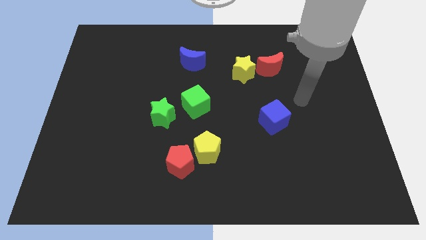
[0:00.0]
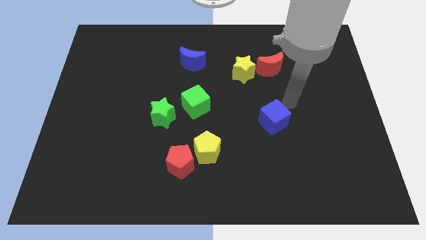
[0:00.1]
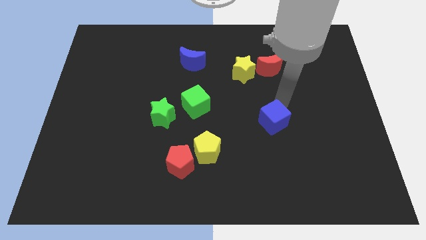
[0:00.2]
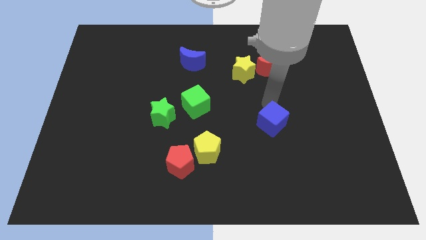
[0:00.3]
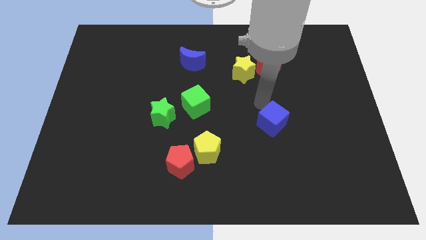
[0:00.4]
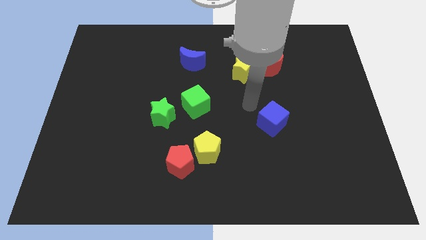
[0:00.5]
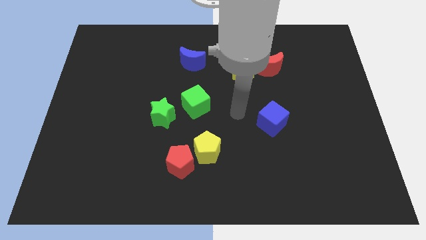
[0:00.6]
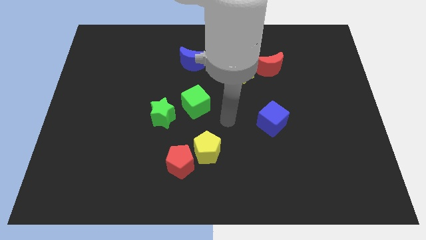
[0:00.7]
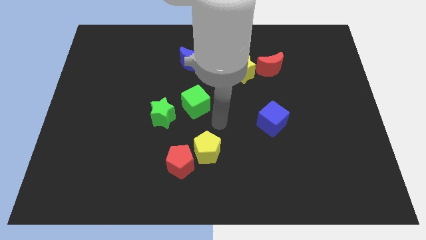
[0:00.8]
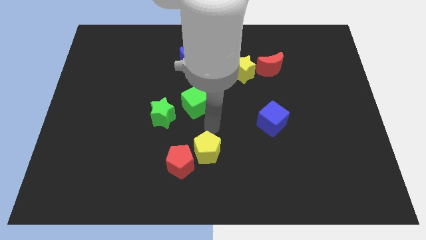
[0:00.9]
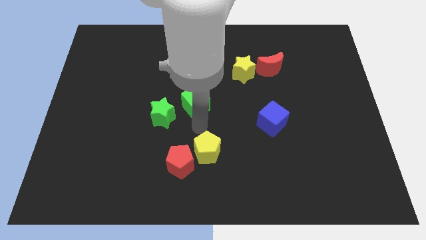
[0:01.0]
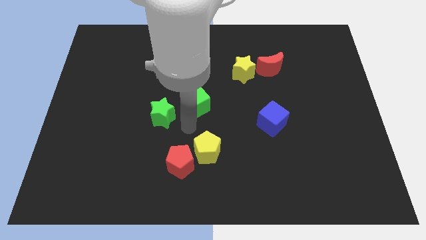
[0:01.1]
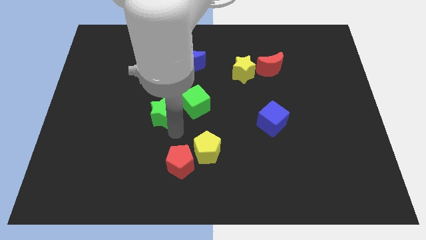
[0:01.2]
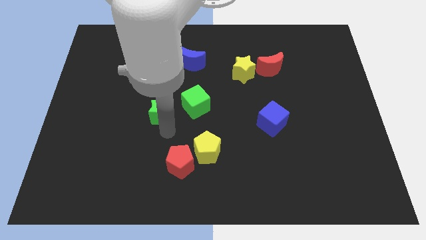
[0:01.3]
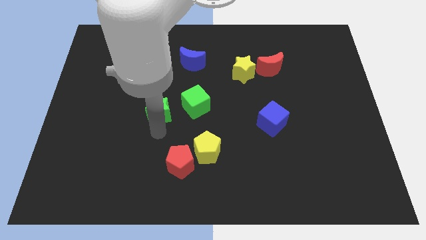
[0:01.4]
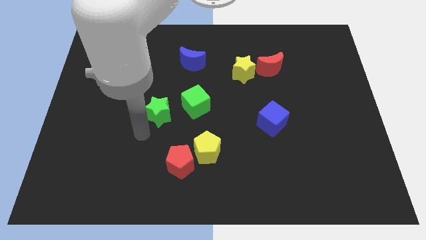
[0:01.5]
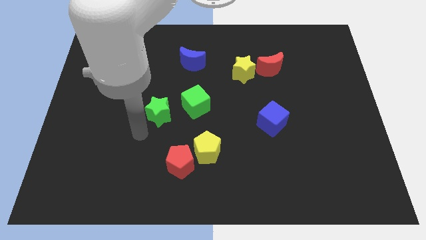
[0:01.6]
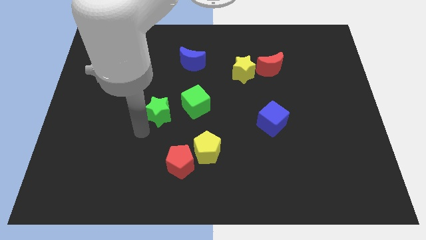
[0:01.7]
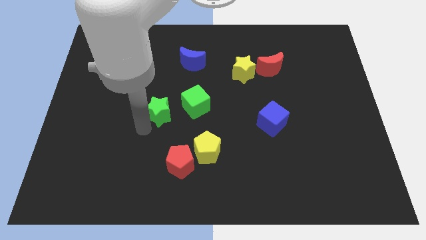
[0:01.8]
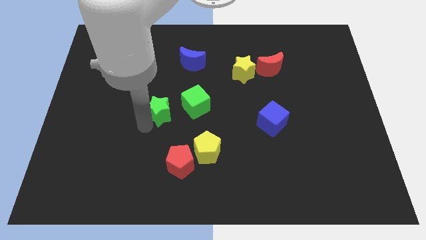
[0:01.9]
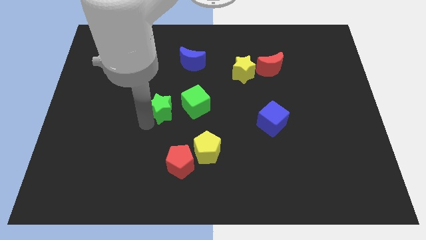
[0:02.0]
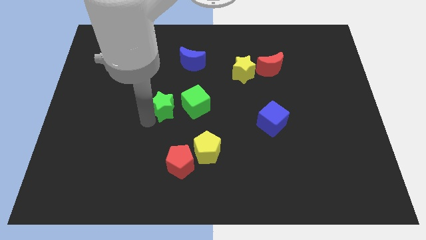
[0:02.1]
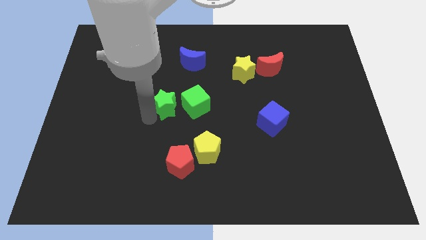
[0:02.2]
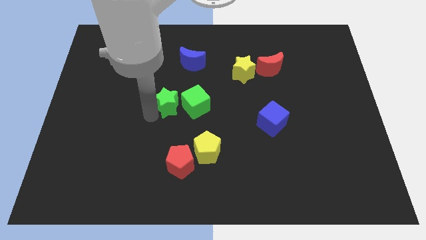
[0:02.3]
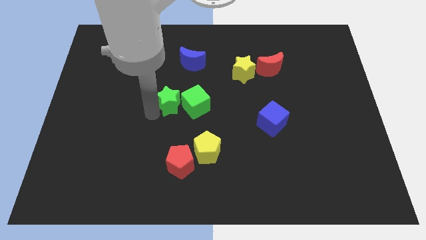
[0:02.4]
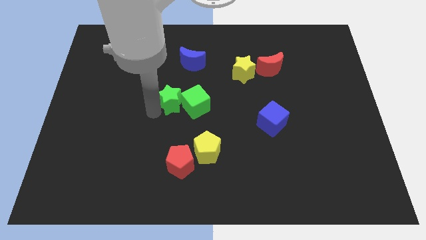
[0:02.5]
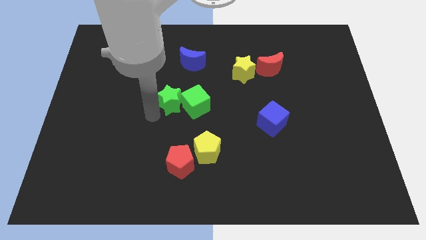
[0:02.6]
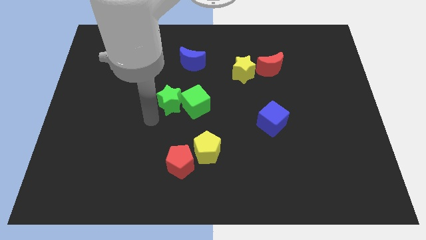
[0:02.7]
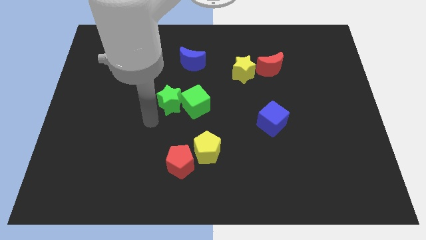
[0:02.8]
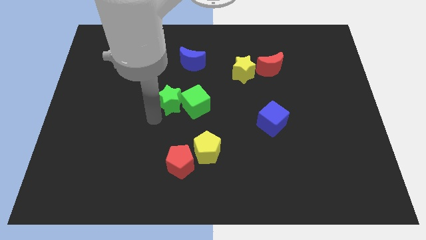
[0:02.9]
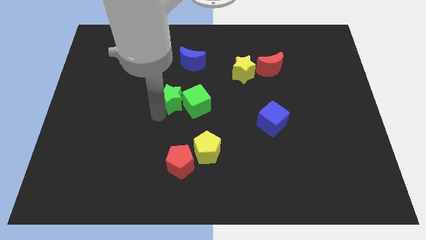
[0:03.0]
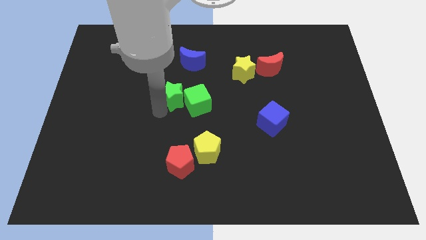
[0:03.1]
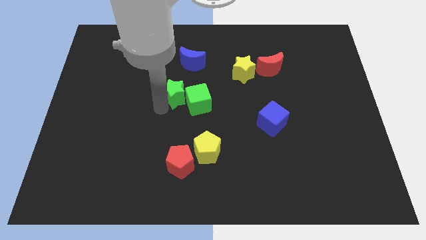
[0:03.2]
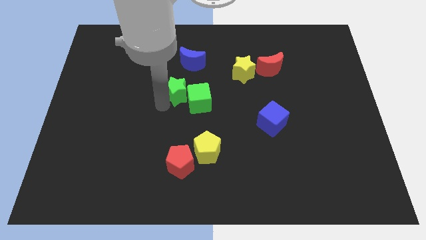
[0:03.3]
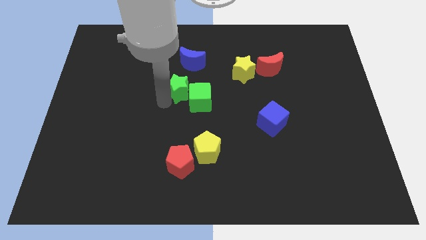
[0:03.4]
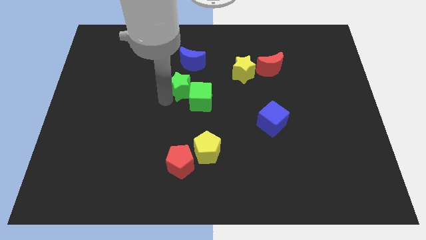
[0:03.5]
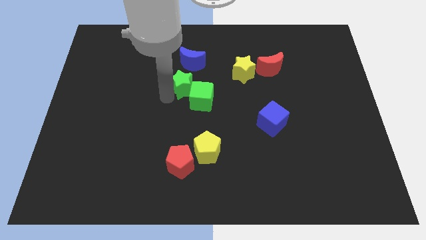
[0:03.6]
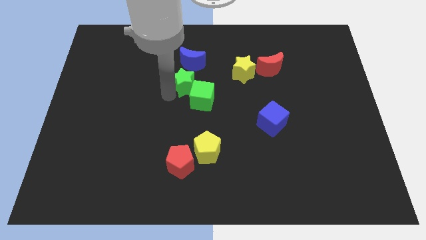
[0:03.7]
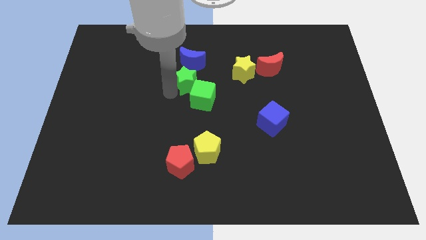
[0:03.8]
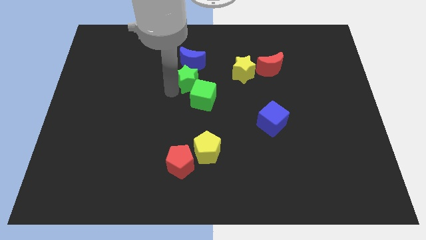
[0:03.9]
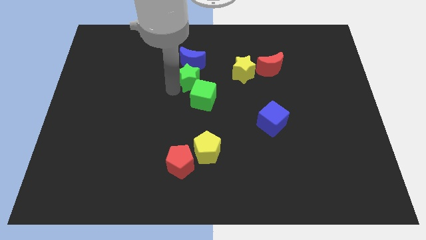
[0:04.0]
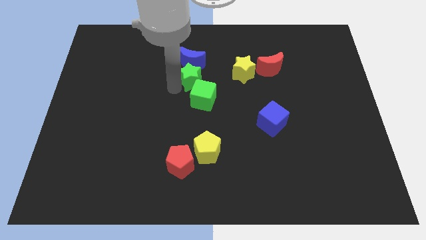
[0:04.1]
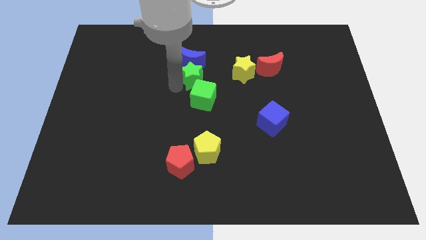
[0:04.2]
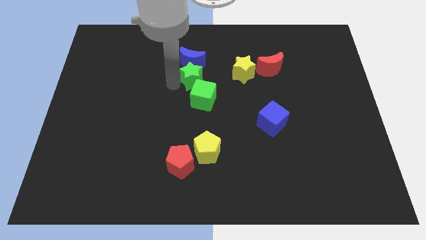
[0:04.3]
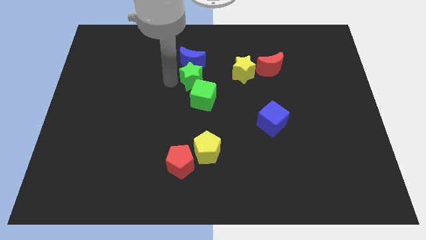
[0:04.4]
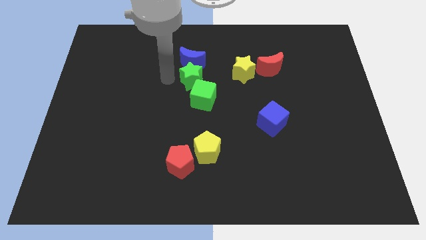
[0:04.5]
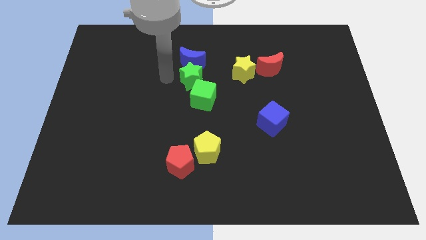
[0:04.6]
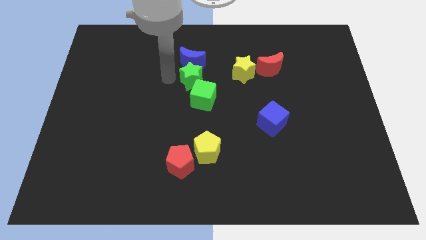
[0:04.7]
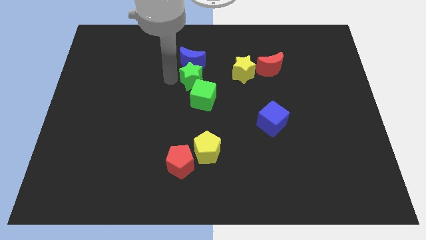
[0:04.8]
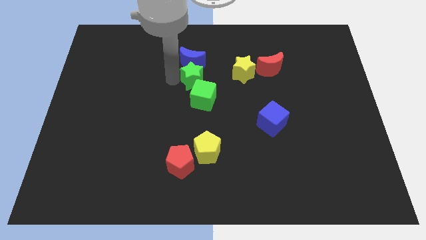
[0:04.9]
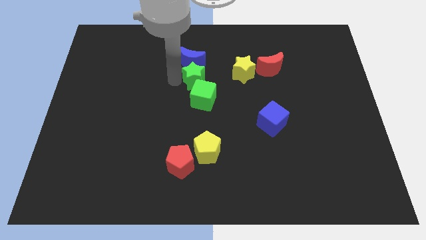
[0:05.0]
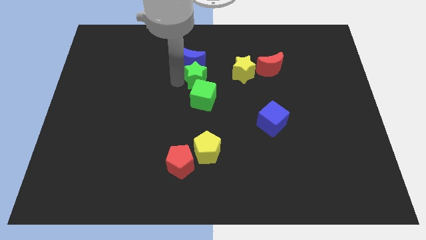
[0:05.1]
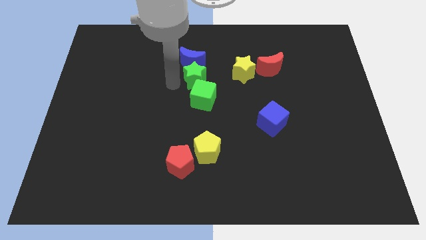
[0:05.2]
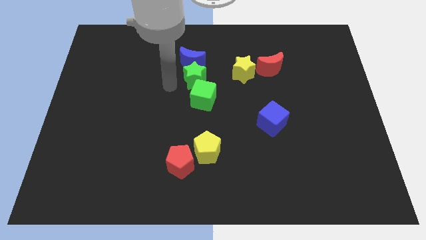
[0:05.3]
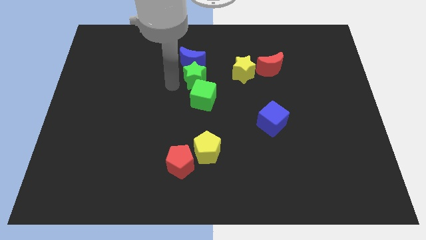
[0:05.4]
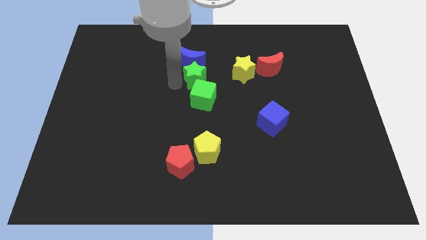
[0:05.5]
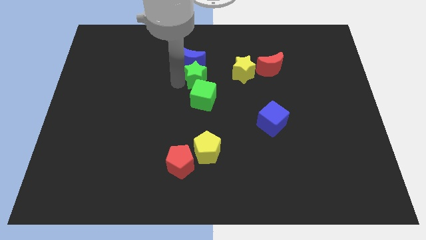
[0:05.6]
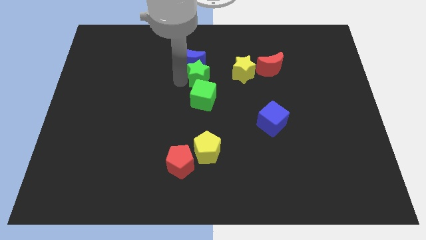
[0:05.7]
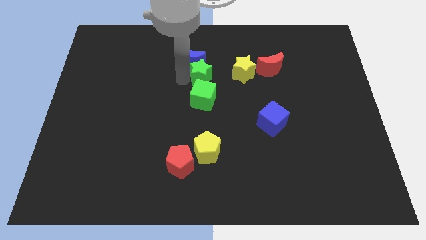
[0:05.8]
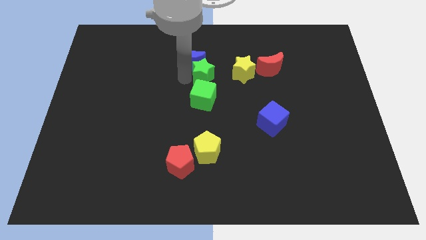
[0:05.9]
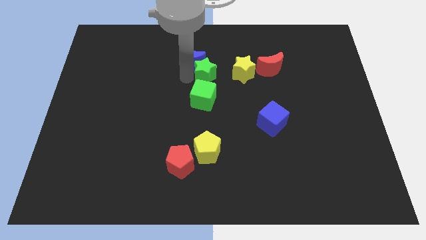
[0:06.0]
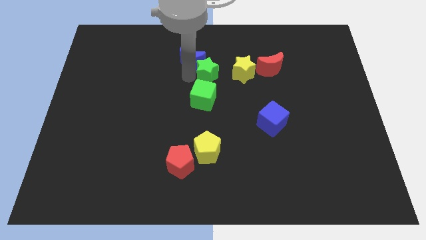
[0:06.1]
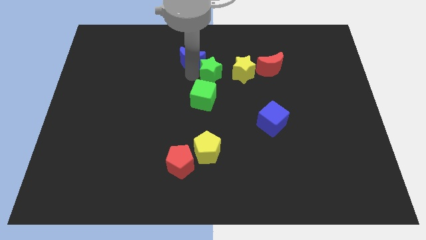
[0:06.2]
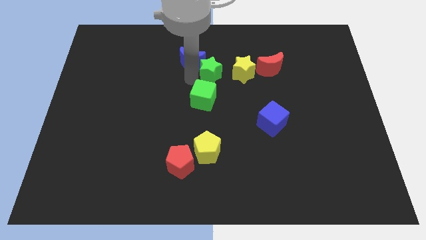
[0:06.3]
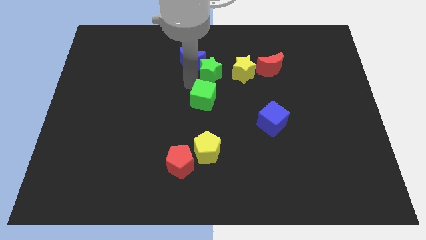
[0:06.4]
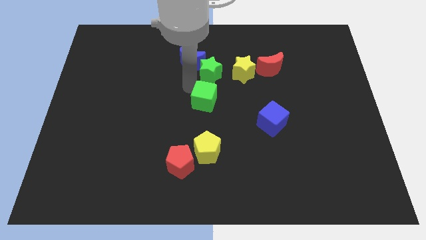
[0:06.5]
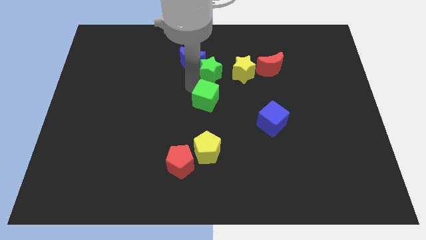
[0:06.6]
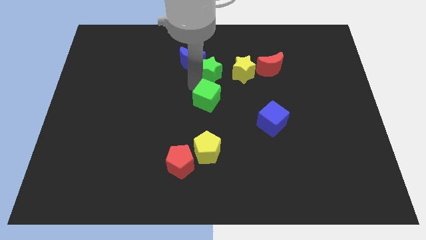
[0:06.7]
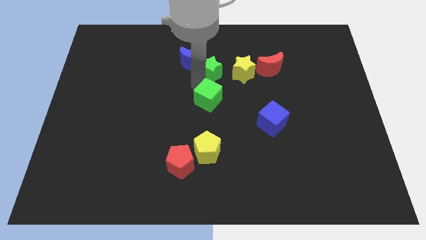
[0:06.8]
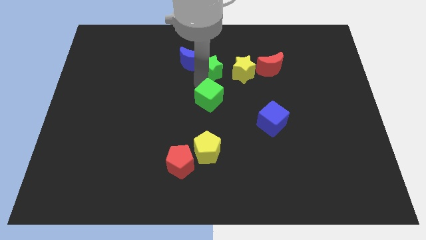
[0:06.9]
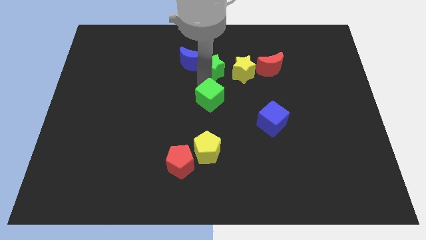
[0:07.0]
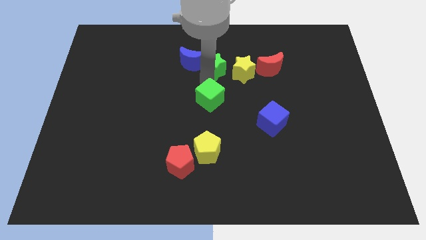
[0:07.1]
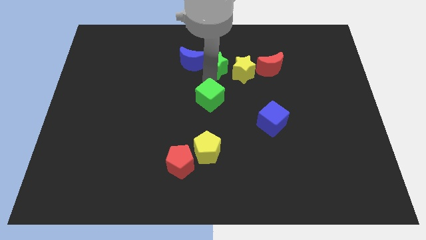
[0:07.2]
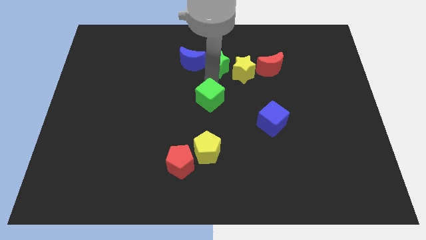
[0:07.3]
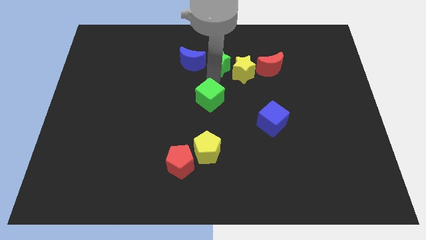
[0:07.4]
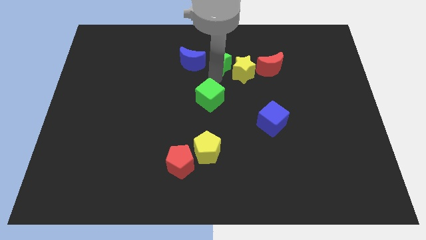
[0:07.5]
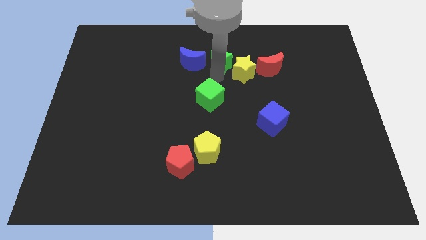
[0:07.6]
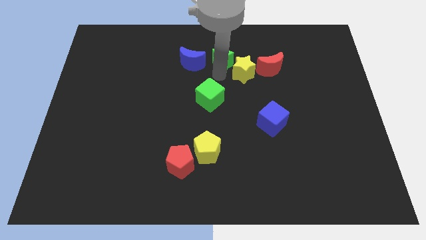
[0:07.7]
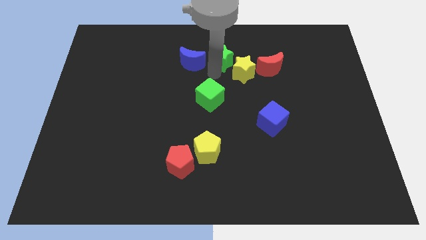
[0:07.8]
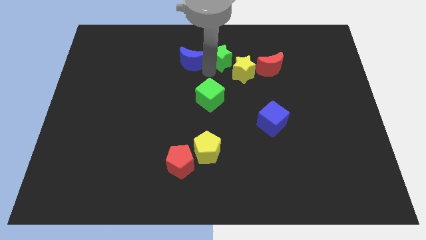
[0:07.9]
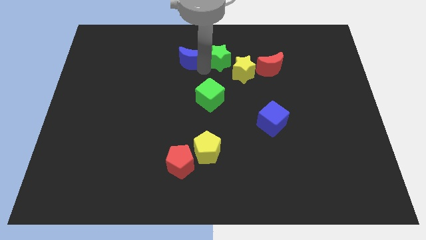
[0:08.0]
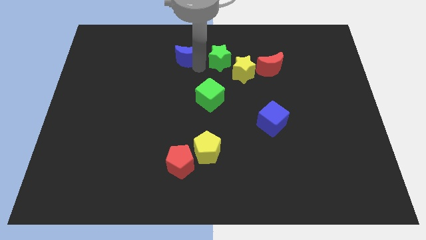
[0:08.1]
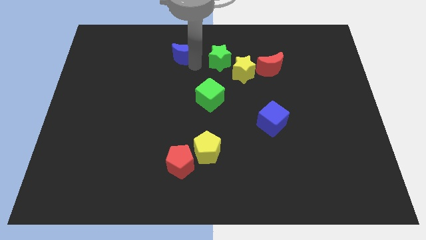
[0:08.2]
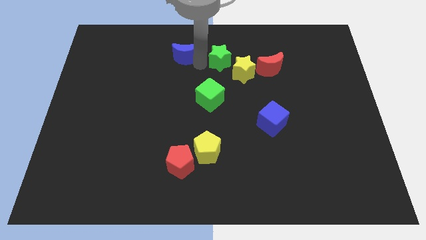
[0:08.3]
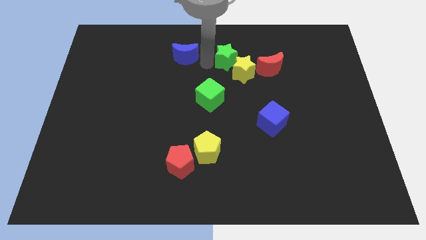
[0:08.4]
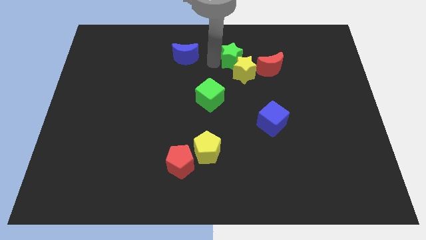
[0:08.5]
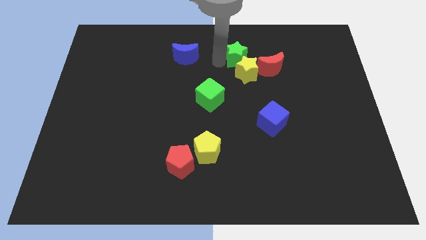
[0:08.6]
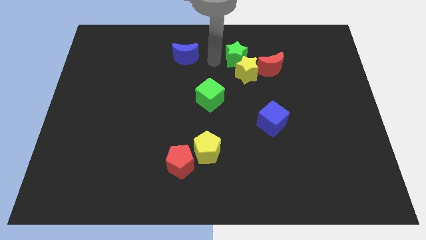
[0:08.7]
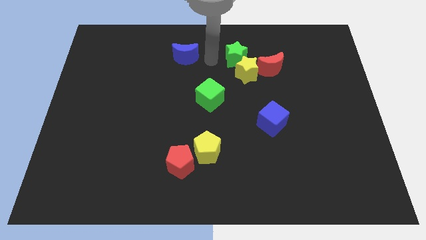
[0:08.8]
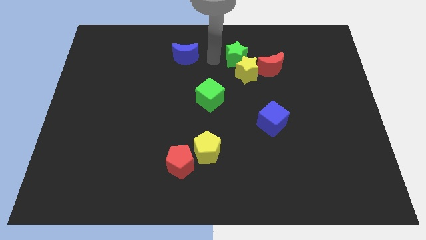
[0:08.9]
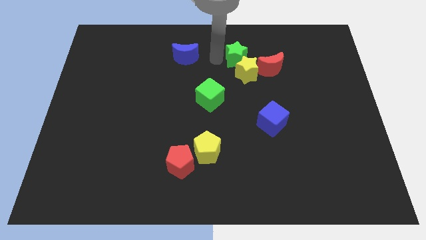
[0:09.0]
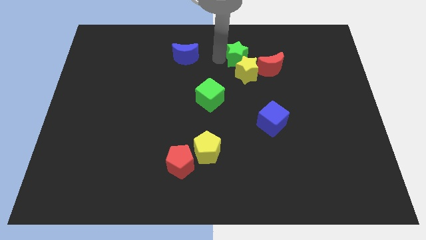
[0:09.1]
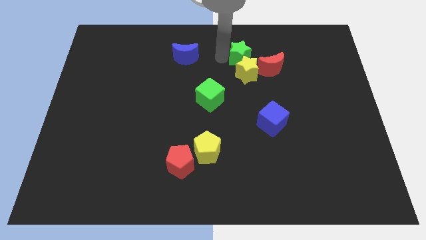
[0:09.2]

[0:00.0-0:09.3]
slide the green star to the top right side of the yellow star
